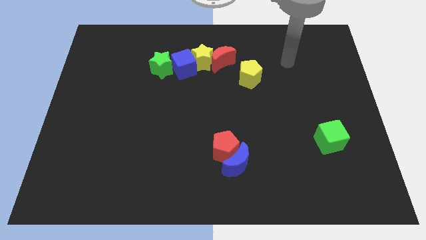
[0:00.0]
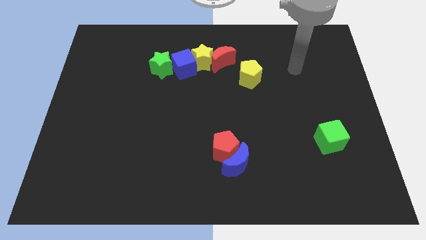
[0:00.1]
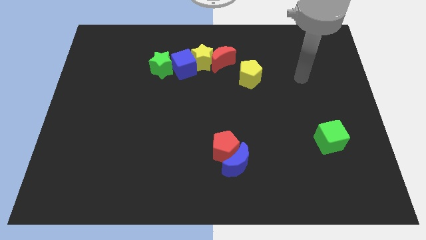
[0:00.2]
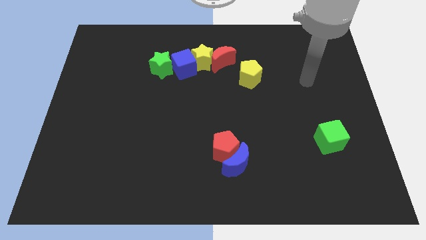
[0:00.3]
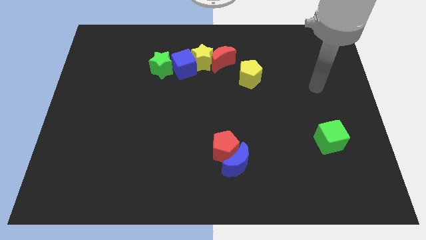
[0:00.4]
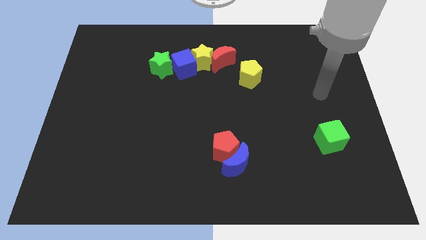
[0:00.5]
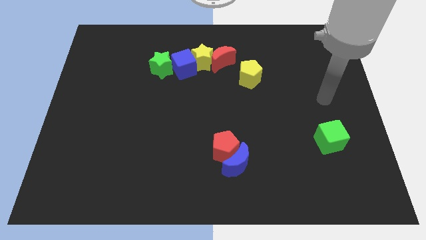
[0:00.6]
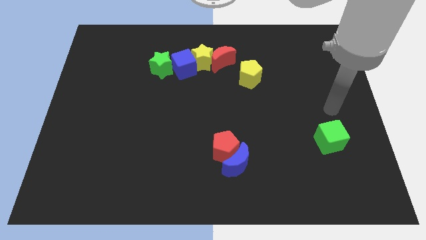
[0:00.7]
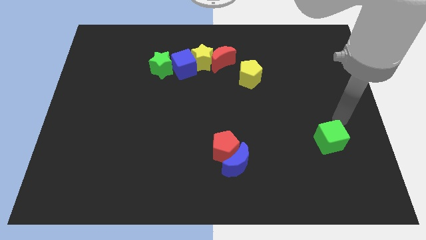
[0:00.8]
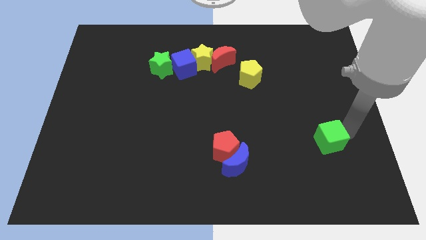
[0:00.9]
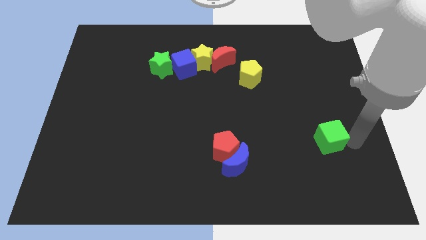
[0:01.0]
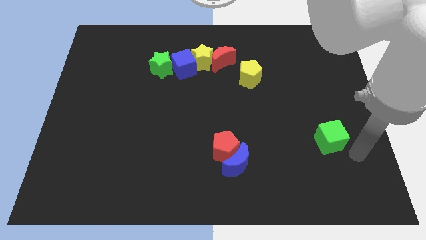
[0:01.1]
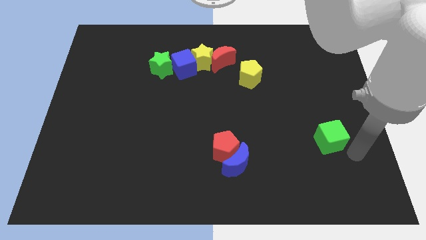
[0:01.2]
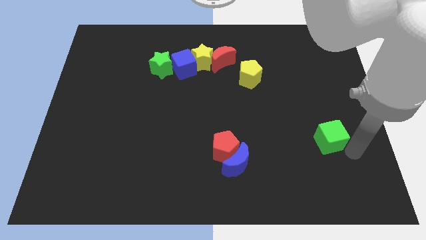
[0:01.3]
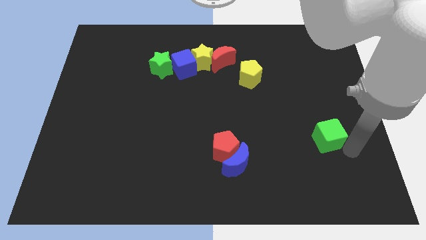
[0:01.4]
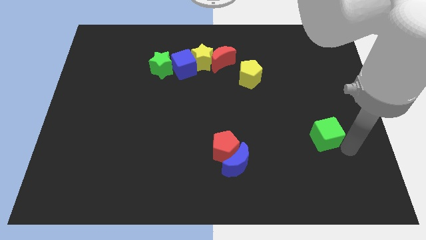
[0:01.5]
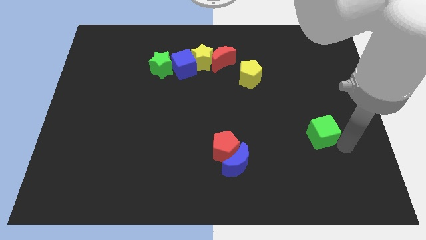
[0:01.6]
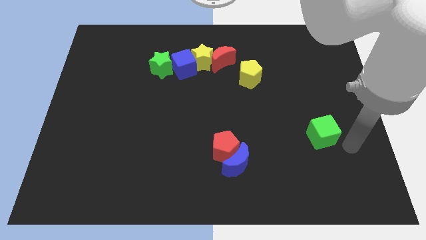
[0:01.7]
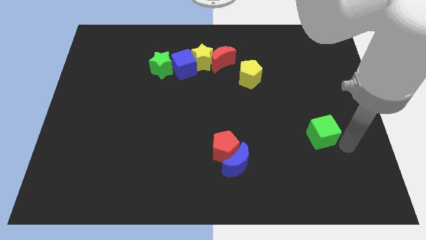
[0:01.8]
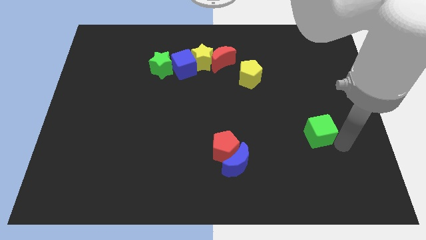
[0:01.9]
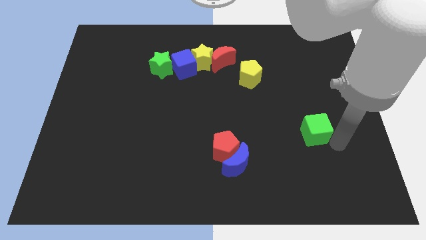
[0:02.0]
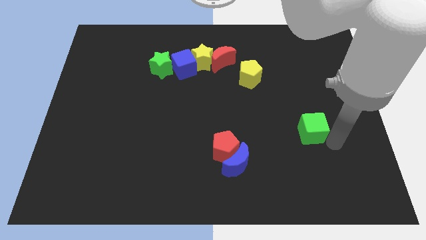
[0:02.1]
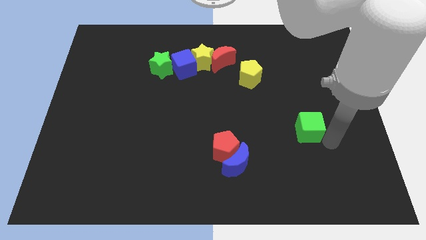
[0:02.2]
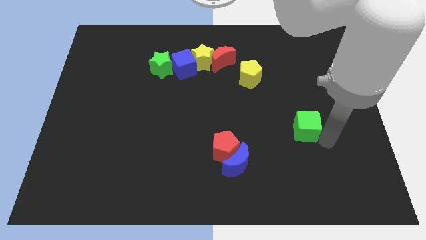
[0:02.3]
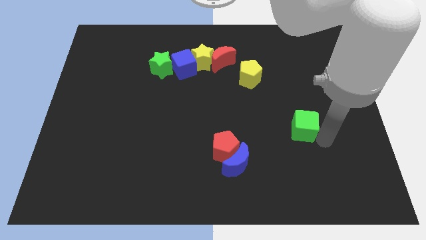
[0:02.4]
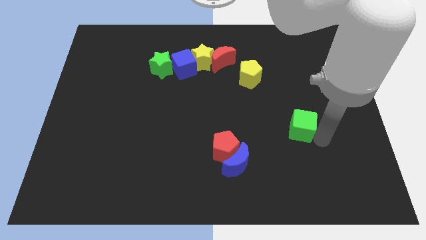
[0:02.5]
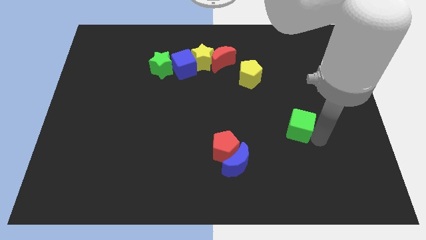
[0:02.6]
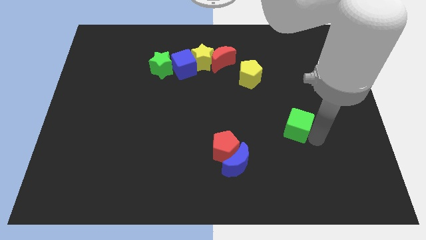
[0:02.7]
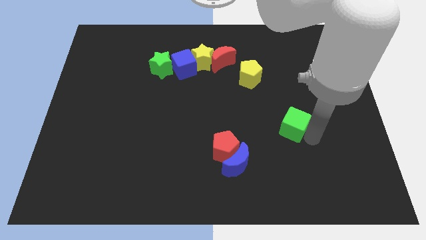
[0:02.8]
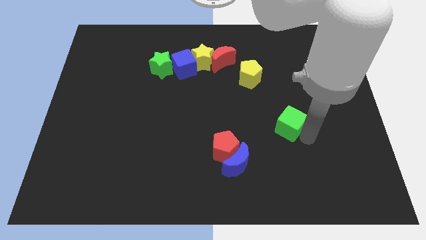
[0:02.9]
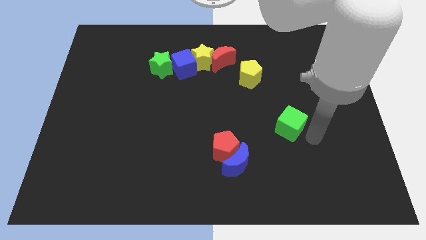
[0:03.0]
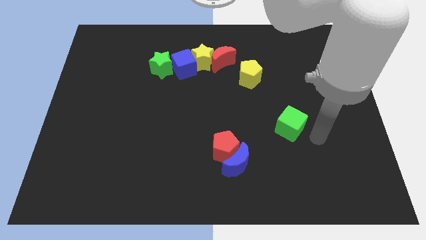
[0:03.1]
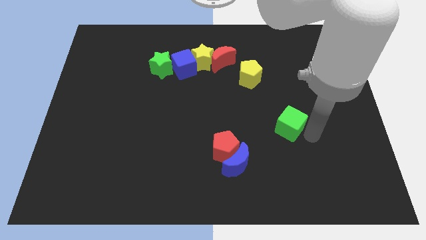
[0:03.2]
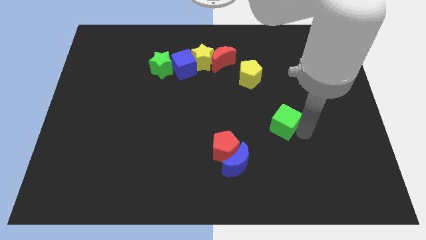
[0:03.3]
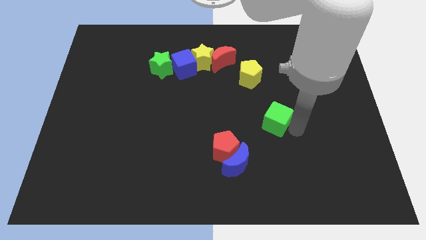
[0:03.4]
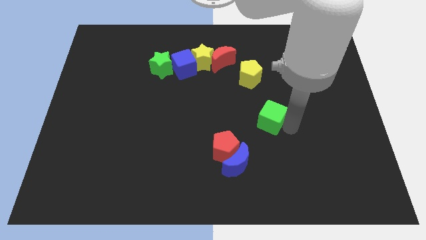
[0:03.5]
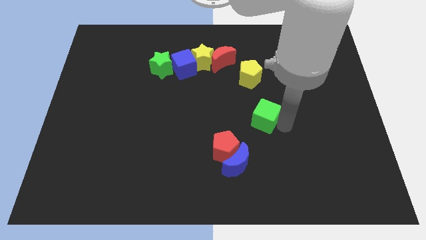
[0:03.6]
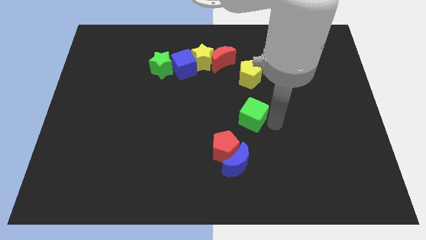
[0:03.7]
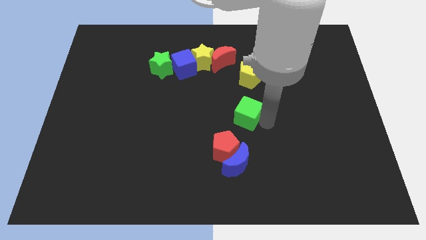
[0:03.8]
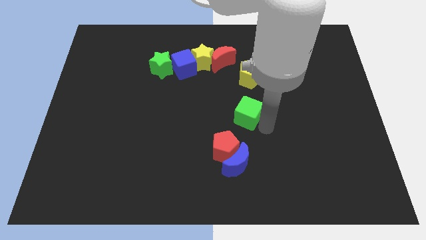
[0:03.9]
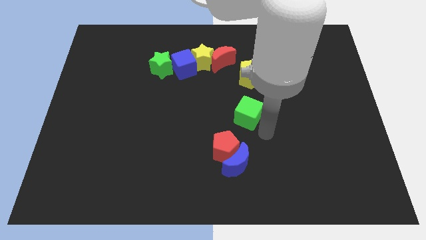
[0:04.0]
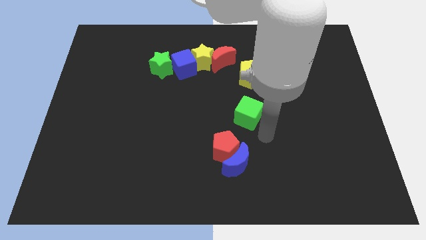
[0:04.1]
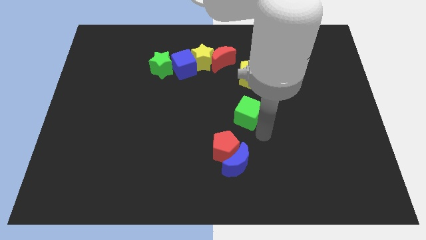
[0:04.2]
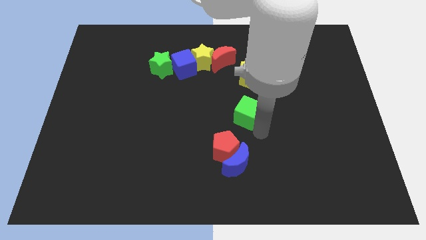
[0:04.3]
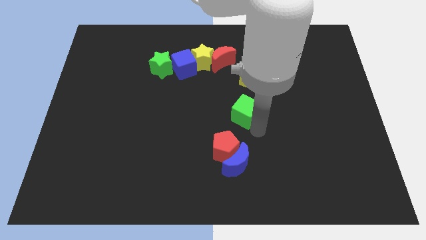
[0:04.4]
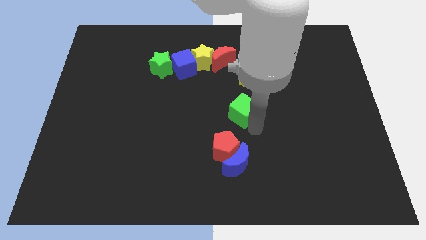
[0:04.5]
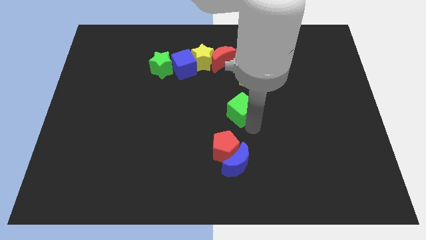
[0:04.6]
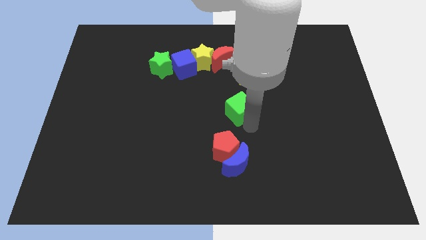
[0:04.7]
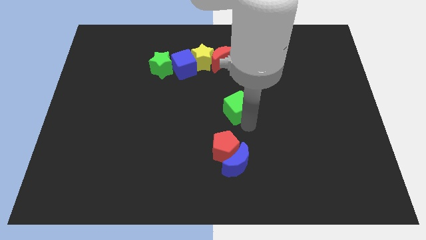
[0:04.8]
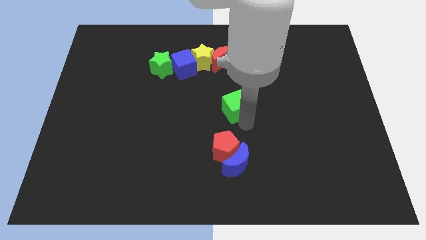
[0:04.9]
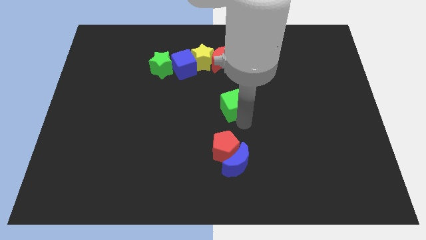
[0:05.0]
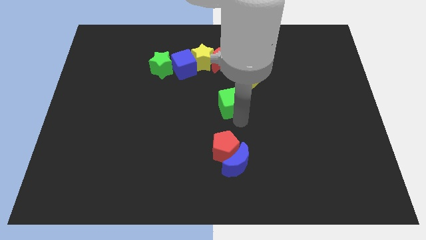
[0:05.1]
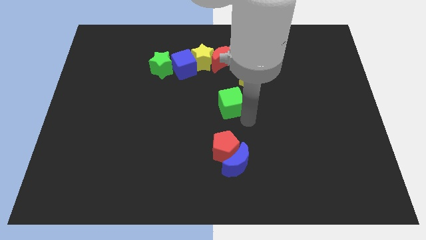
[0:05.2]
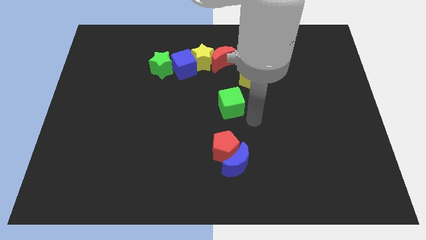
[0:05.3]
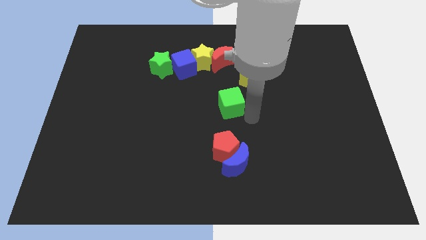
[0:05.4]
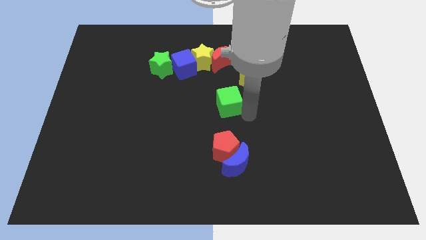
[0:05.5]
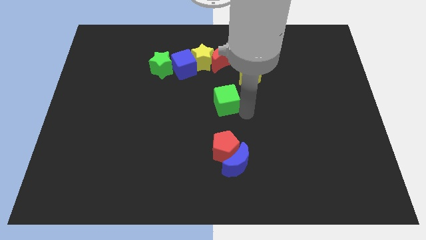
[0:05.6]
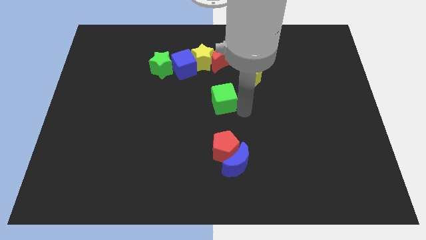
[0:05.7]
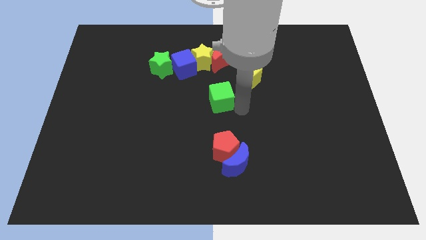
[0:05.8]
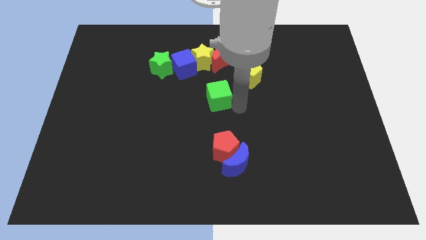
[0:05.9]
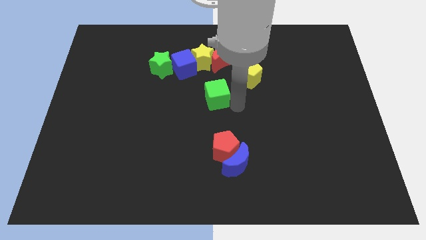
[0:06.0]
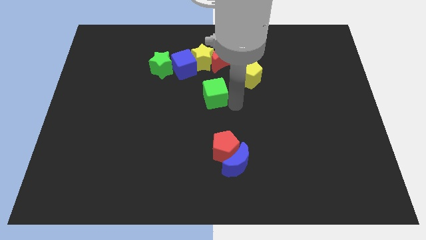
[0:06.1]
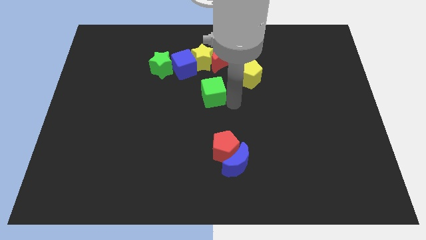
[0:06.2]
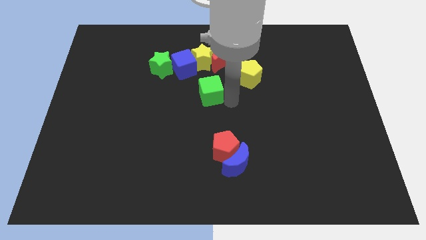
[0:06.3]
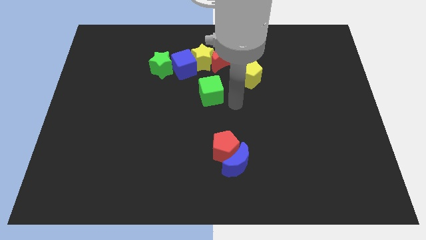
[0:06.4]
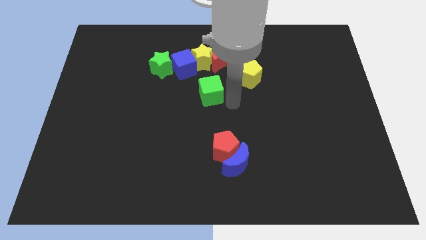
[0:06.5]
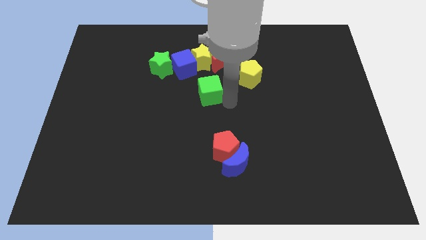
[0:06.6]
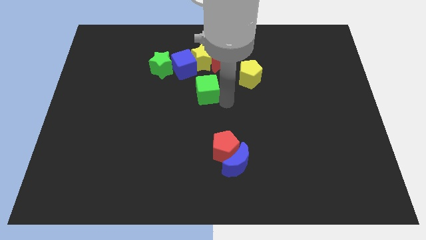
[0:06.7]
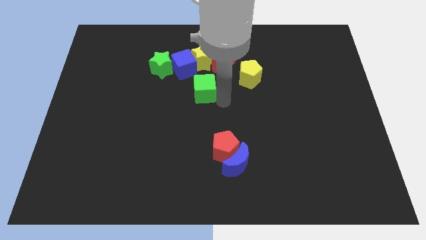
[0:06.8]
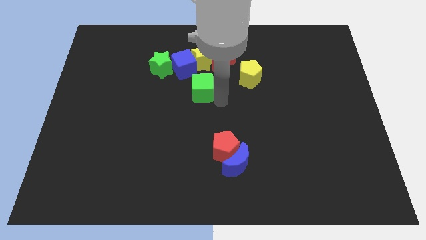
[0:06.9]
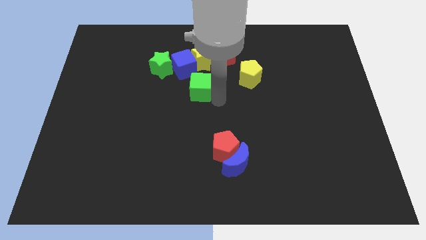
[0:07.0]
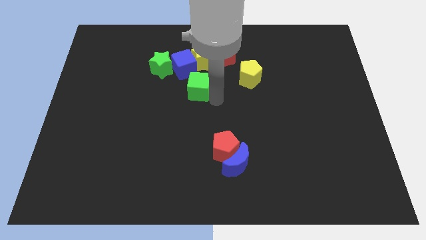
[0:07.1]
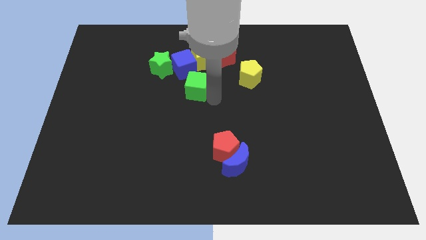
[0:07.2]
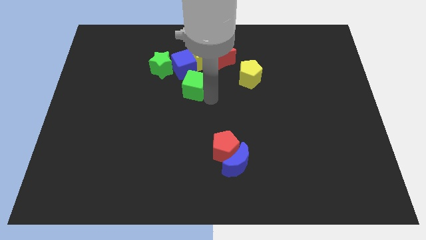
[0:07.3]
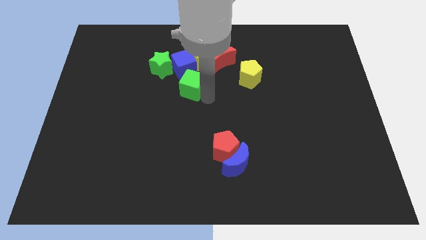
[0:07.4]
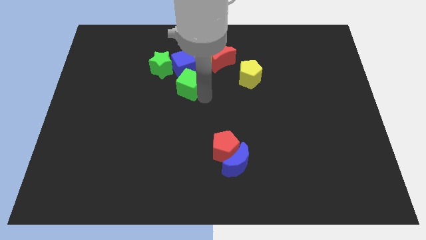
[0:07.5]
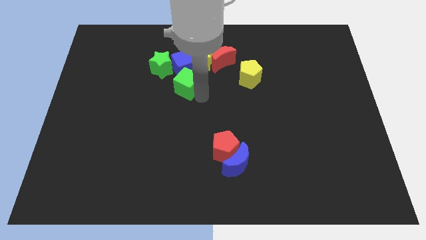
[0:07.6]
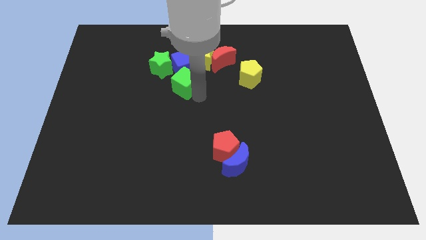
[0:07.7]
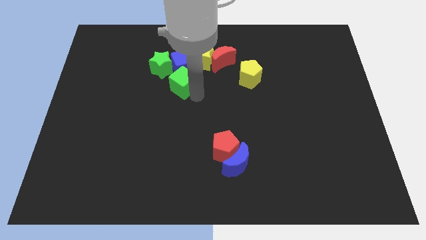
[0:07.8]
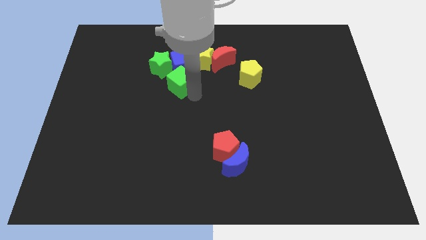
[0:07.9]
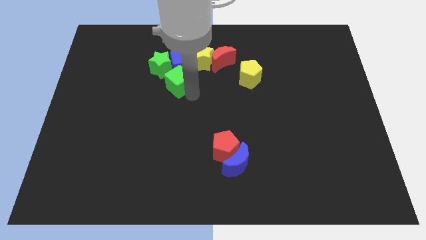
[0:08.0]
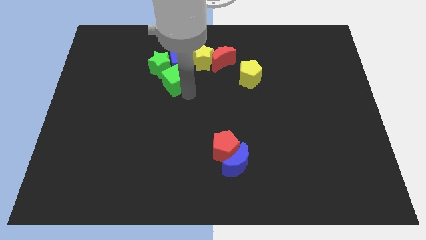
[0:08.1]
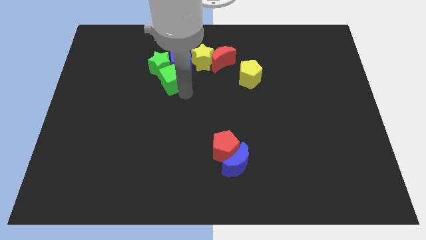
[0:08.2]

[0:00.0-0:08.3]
move the green cube close to the green star
